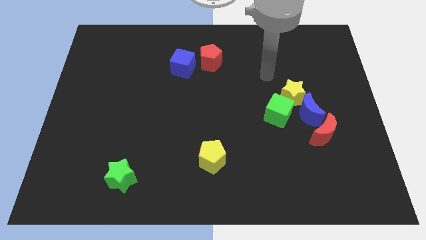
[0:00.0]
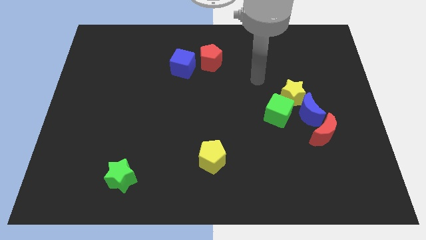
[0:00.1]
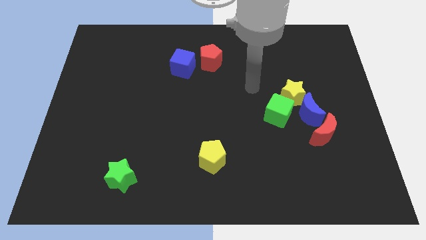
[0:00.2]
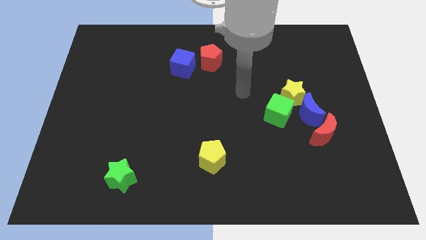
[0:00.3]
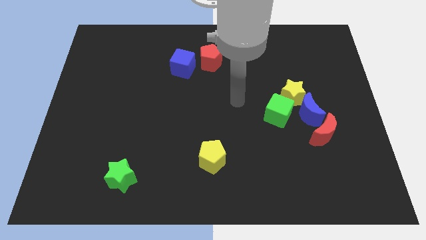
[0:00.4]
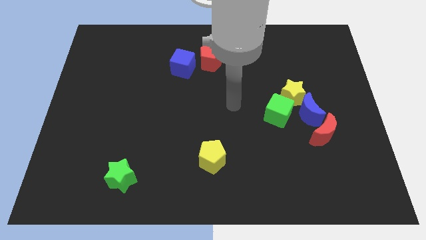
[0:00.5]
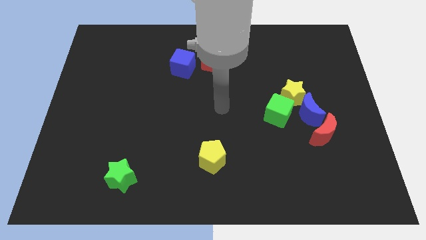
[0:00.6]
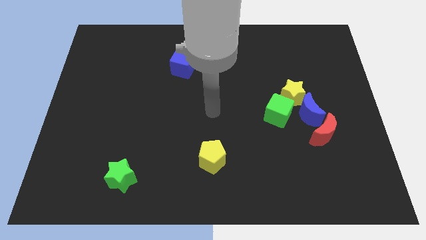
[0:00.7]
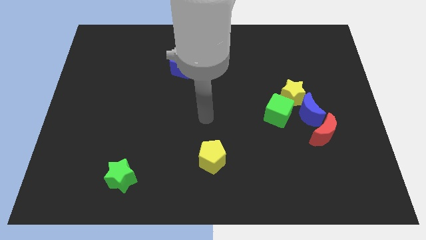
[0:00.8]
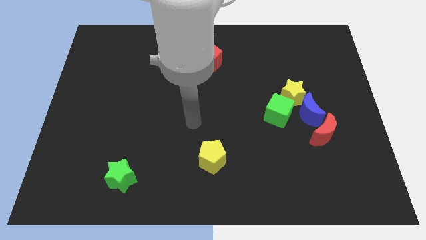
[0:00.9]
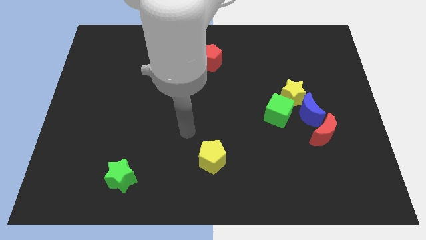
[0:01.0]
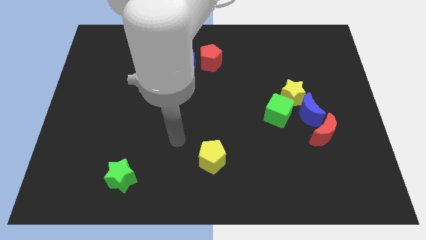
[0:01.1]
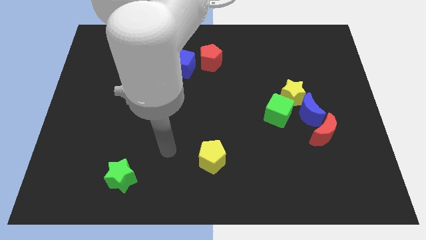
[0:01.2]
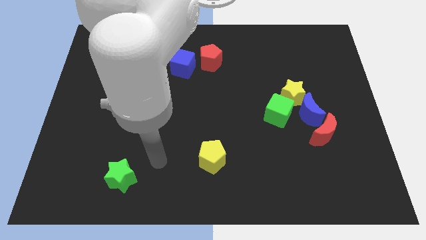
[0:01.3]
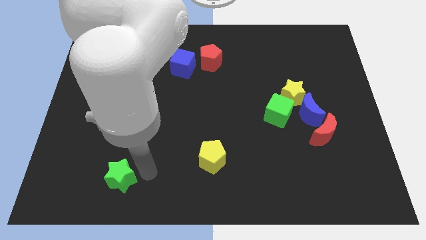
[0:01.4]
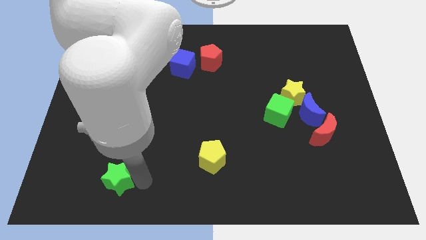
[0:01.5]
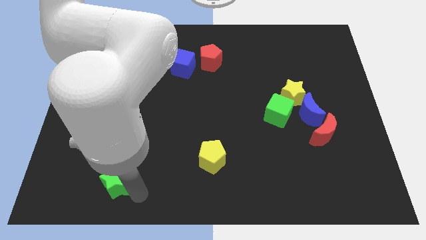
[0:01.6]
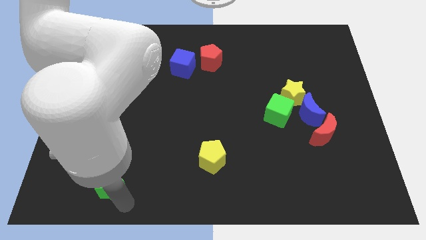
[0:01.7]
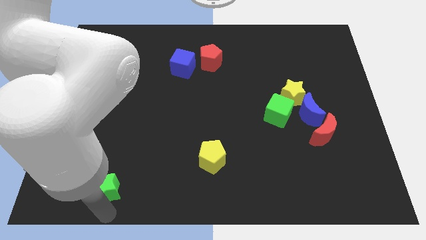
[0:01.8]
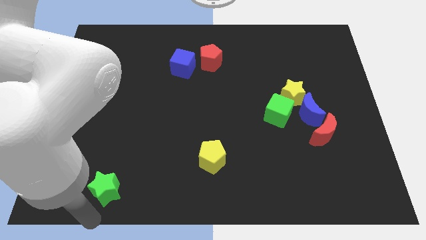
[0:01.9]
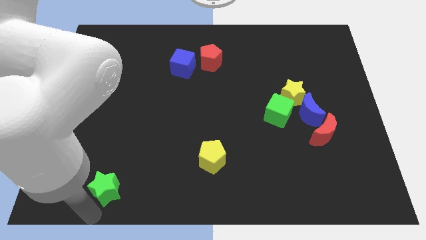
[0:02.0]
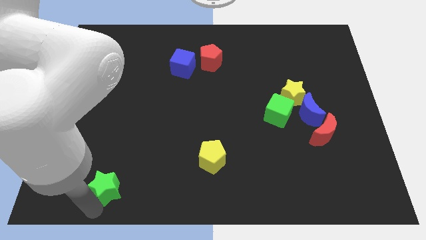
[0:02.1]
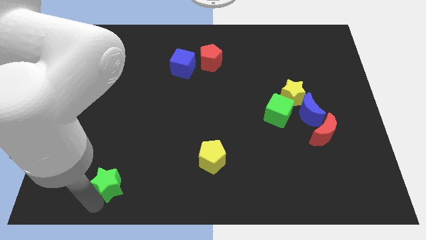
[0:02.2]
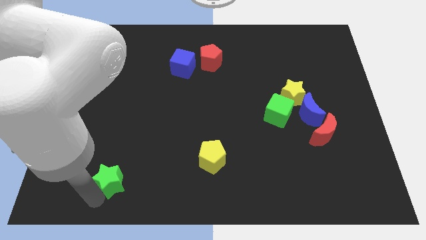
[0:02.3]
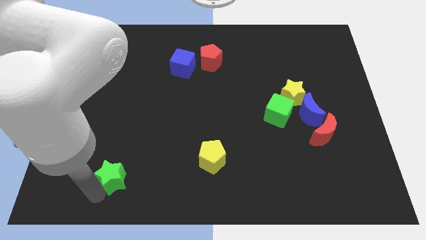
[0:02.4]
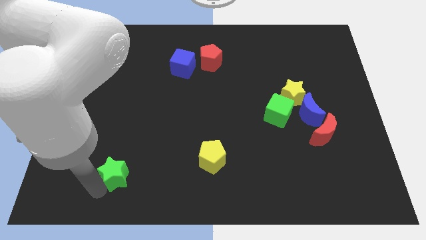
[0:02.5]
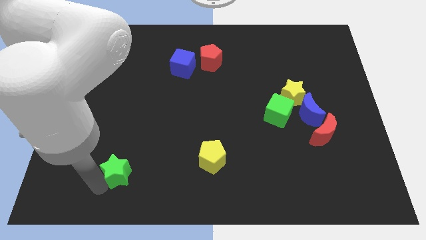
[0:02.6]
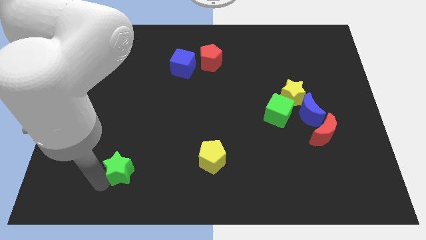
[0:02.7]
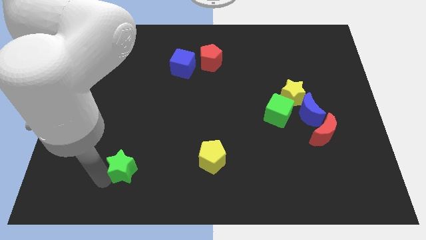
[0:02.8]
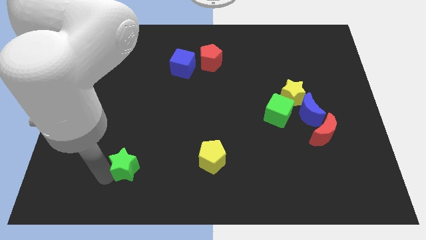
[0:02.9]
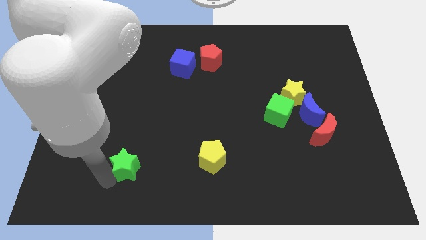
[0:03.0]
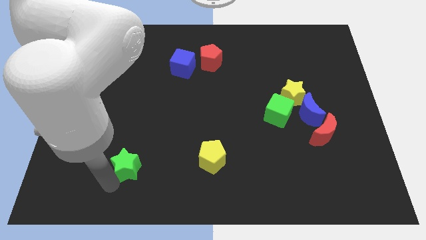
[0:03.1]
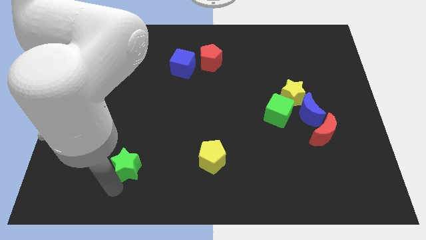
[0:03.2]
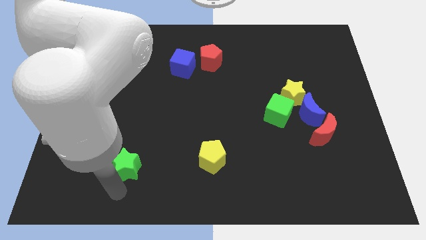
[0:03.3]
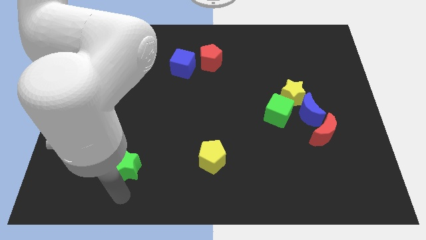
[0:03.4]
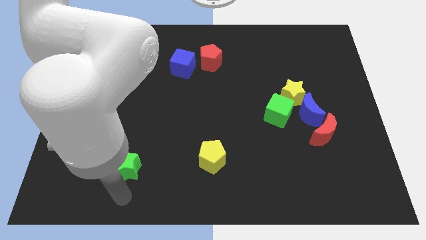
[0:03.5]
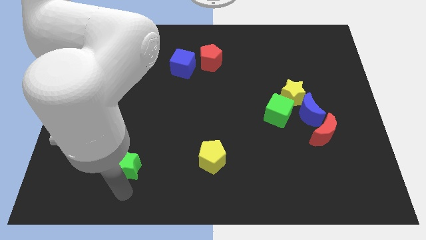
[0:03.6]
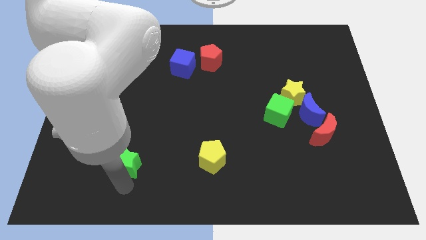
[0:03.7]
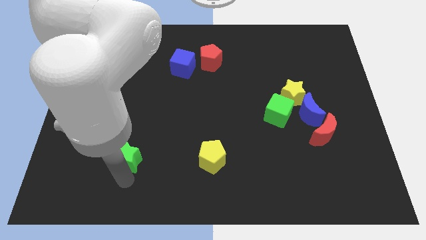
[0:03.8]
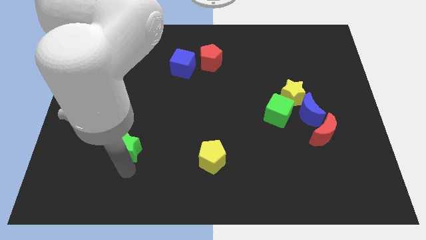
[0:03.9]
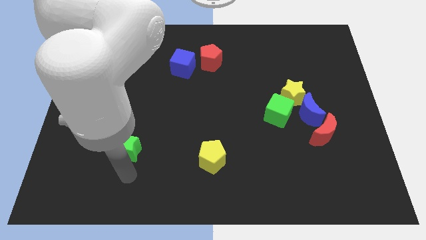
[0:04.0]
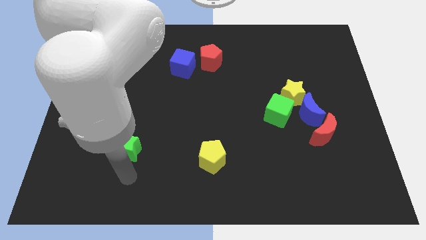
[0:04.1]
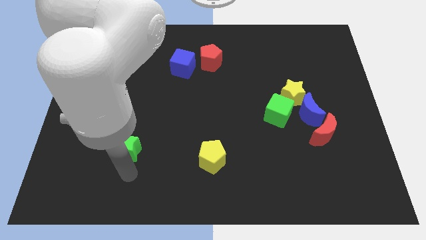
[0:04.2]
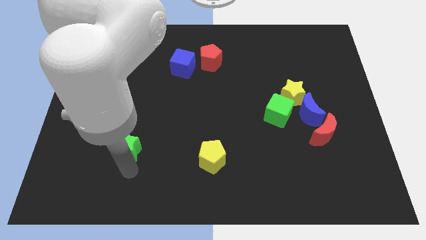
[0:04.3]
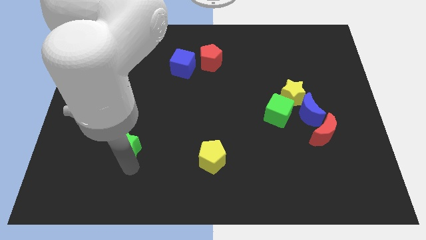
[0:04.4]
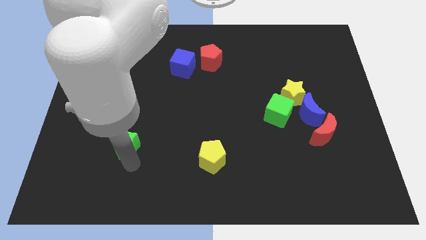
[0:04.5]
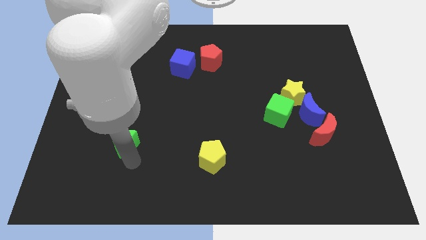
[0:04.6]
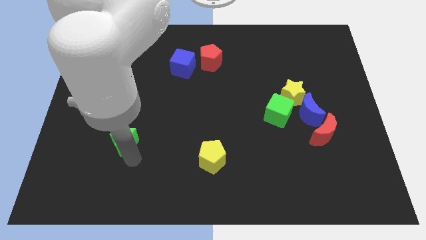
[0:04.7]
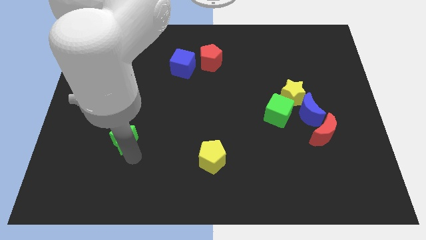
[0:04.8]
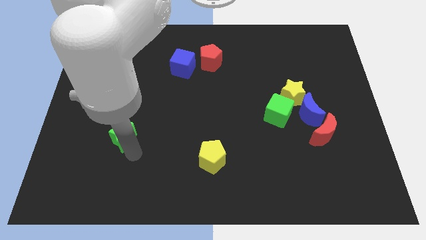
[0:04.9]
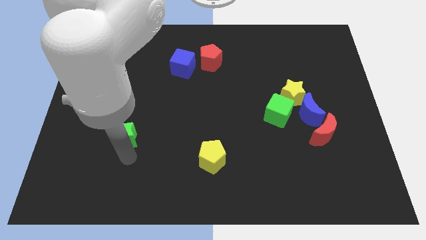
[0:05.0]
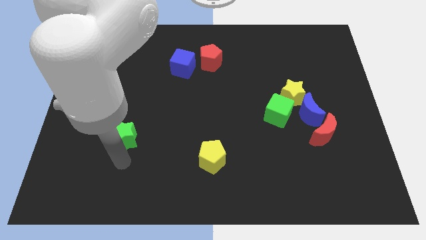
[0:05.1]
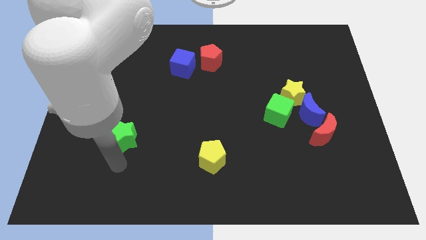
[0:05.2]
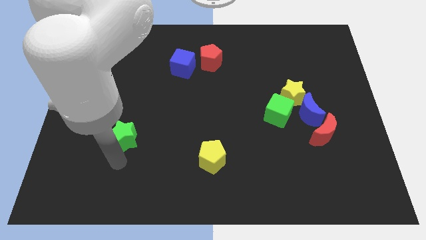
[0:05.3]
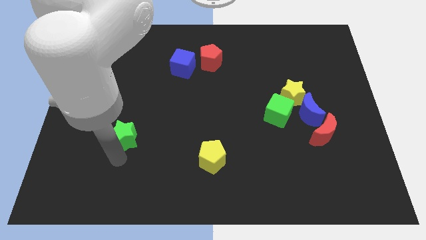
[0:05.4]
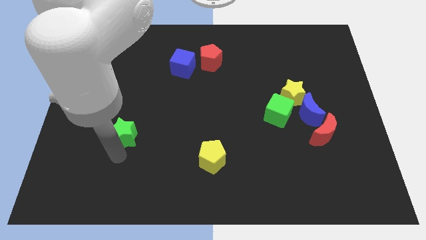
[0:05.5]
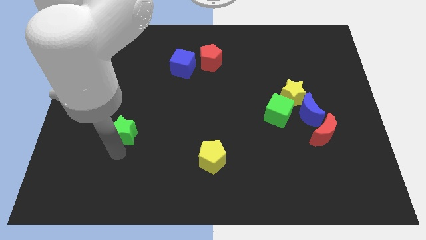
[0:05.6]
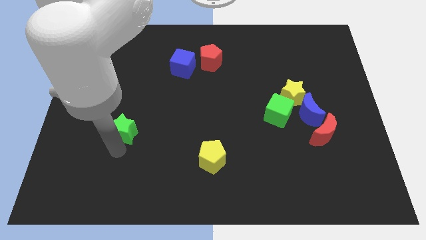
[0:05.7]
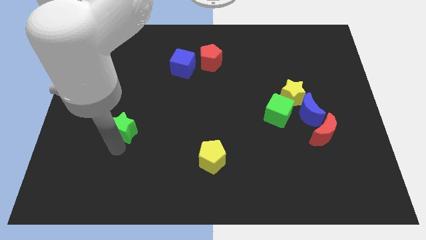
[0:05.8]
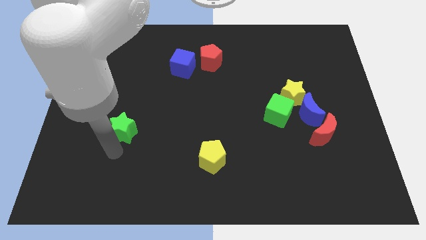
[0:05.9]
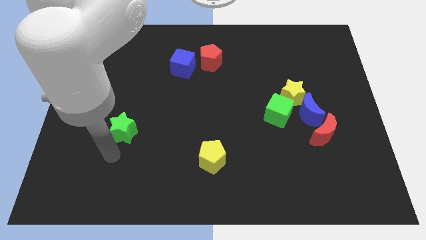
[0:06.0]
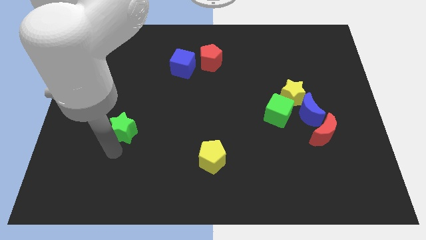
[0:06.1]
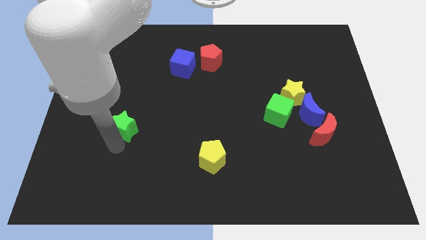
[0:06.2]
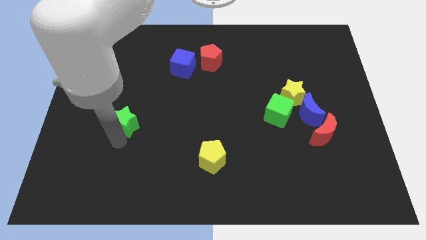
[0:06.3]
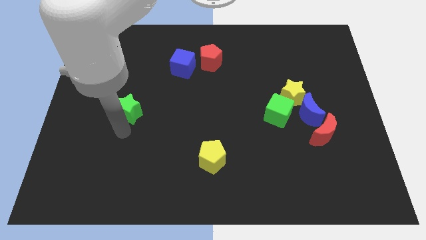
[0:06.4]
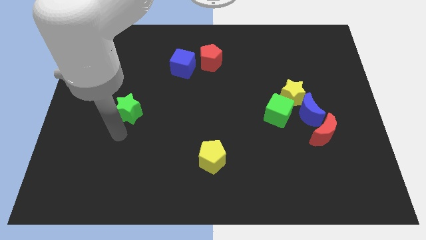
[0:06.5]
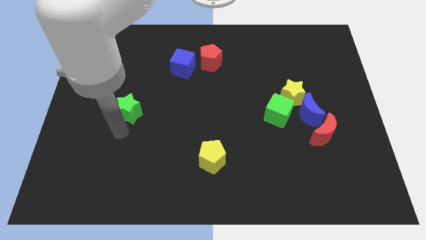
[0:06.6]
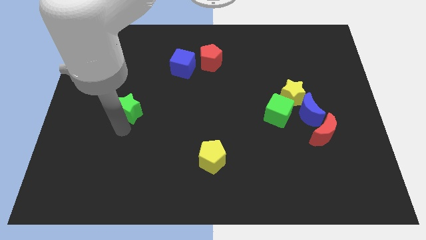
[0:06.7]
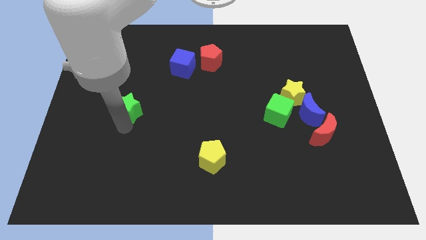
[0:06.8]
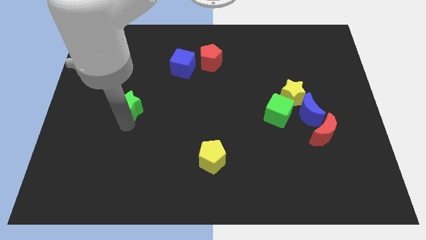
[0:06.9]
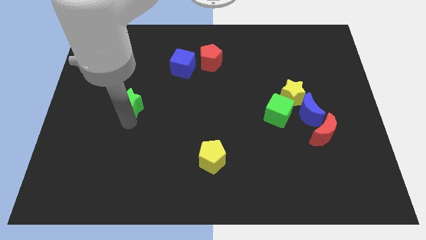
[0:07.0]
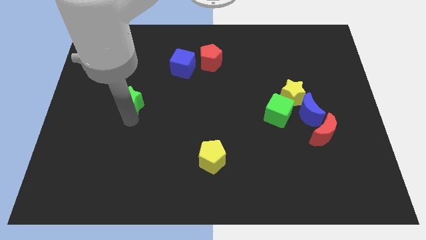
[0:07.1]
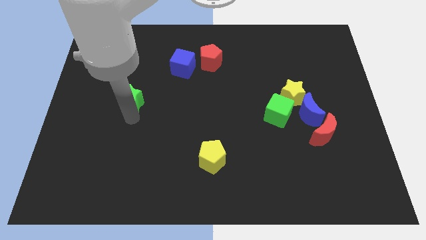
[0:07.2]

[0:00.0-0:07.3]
slide the green star upwards

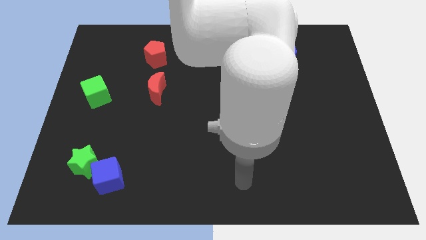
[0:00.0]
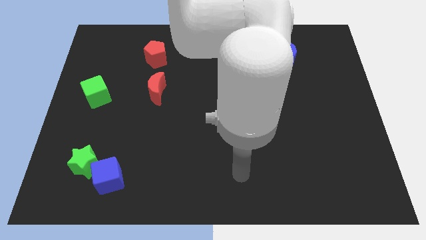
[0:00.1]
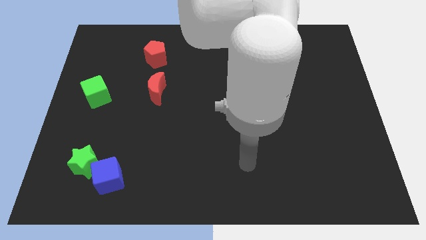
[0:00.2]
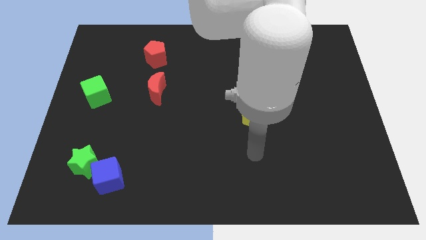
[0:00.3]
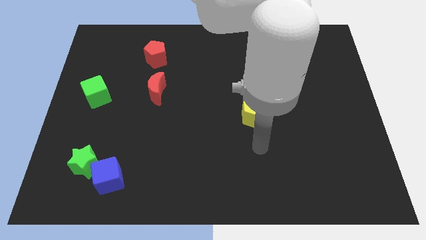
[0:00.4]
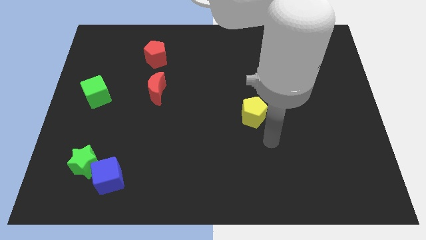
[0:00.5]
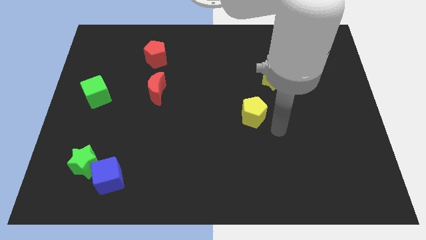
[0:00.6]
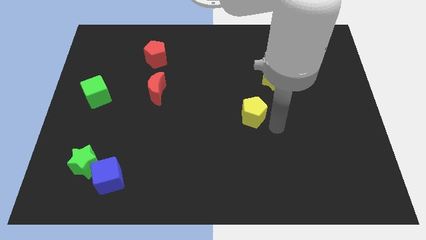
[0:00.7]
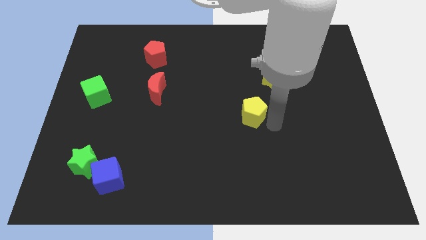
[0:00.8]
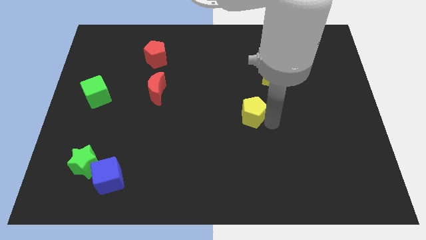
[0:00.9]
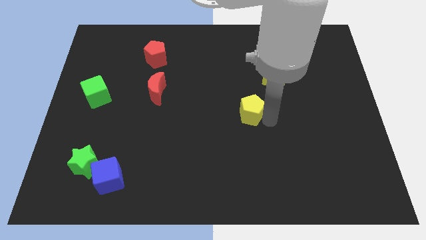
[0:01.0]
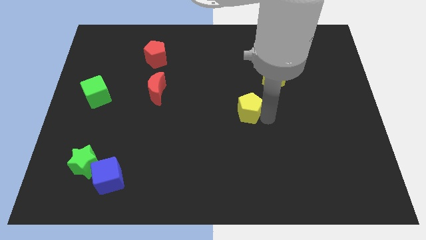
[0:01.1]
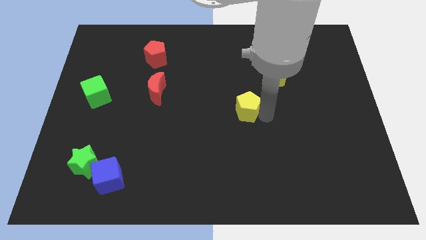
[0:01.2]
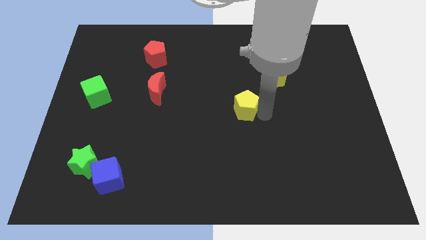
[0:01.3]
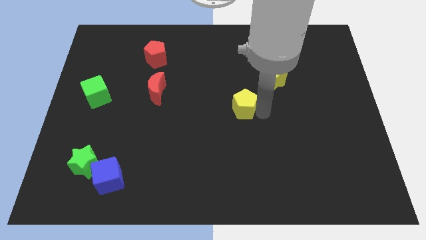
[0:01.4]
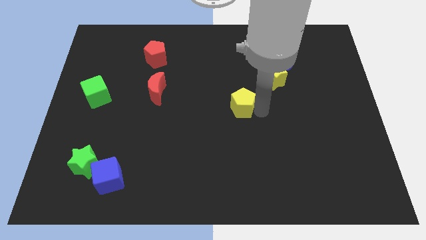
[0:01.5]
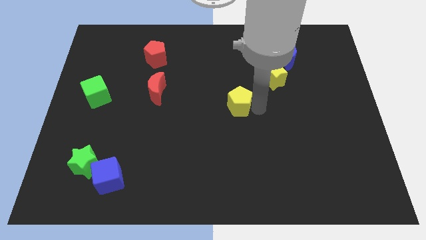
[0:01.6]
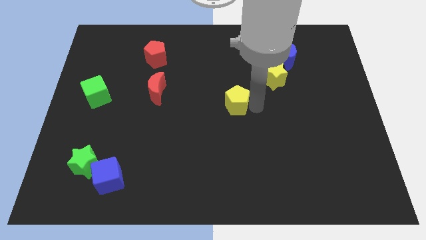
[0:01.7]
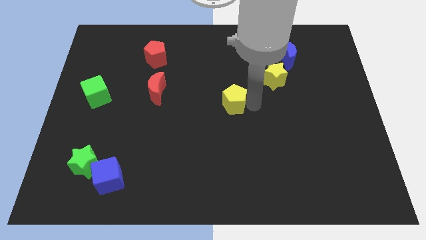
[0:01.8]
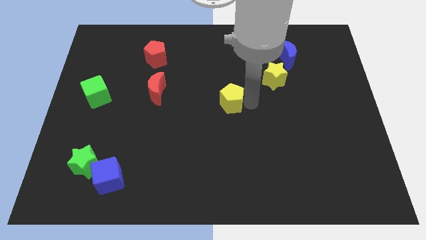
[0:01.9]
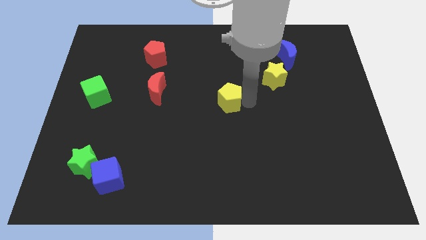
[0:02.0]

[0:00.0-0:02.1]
move the yellow pentagon up and then left slightly
